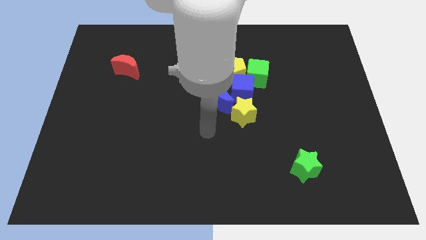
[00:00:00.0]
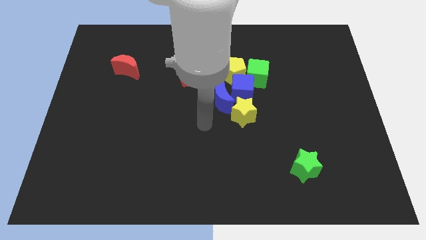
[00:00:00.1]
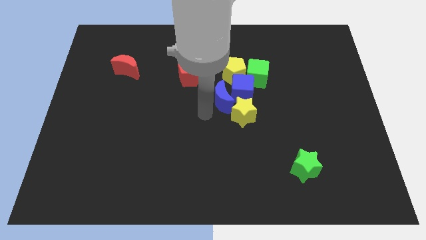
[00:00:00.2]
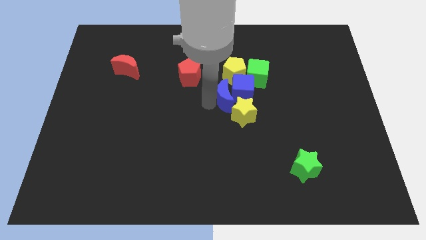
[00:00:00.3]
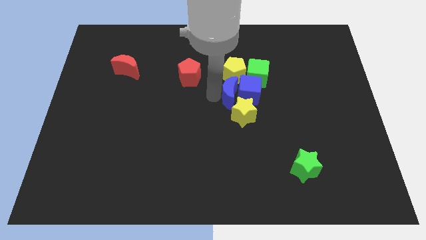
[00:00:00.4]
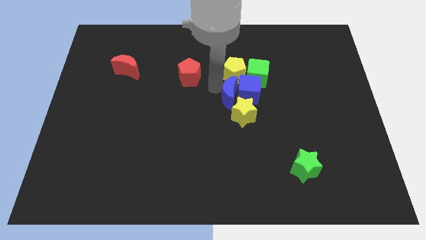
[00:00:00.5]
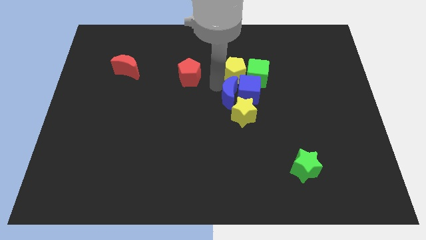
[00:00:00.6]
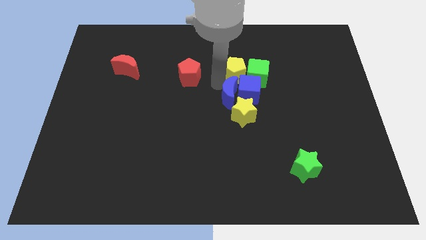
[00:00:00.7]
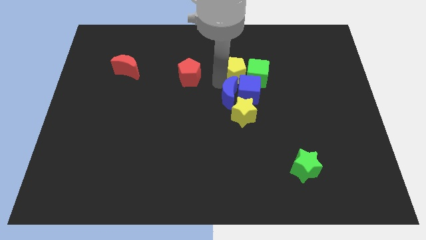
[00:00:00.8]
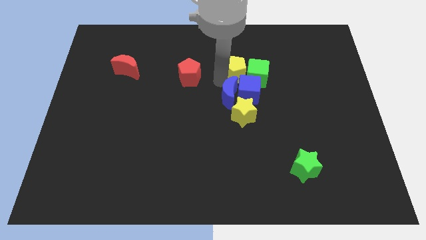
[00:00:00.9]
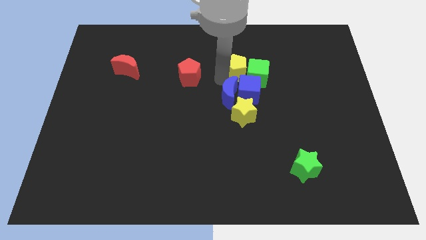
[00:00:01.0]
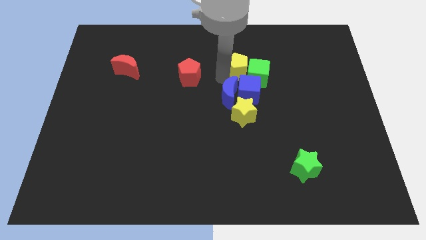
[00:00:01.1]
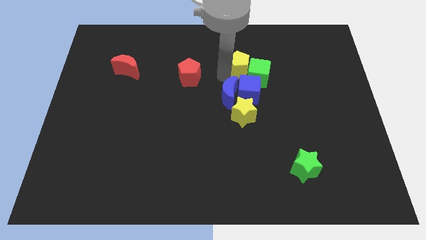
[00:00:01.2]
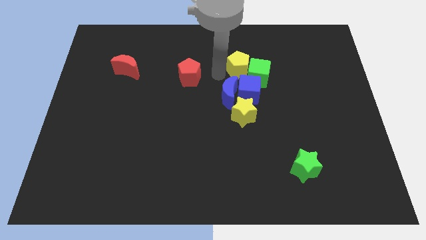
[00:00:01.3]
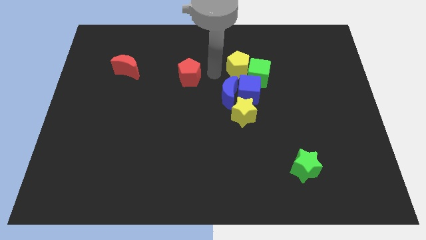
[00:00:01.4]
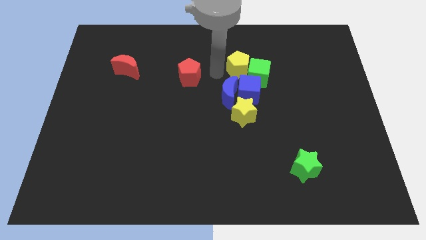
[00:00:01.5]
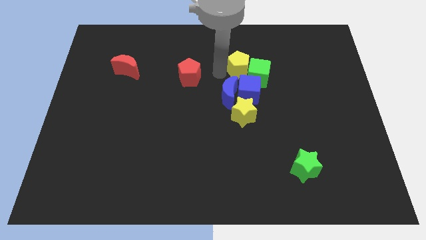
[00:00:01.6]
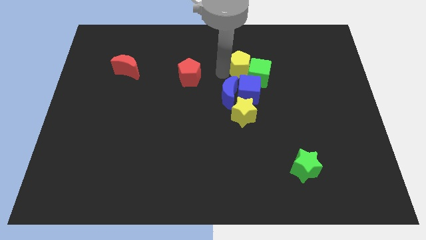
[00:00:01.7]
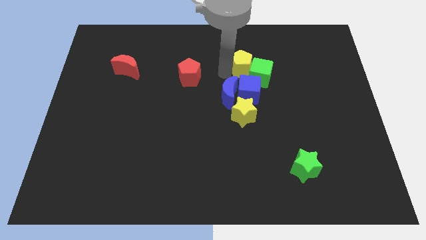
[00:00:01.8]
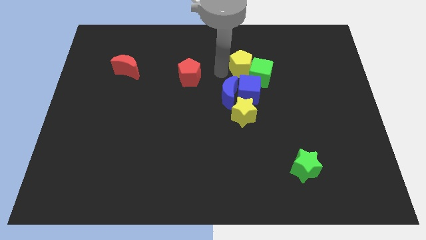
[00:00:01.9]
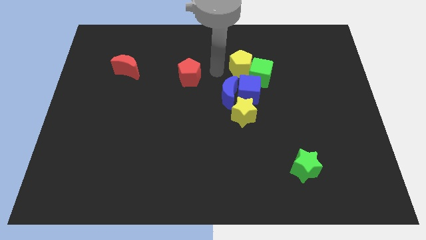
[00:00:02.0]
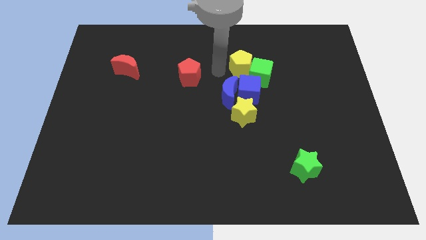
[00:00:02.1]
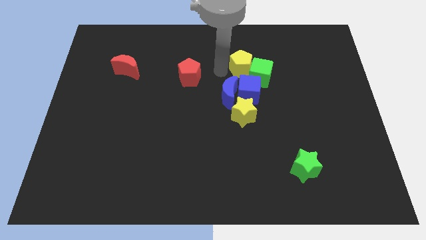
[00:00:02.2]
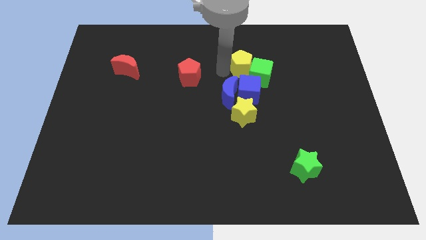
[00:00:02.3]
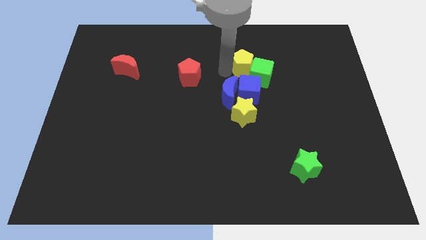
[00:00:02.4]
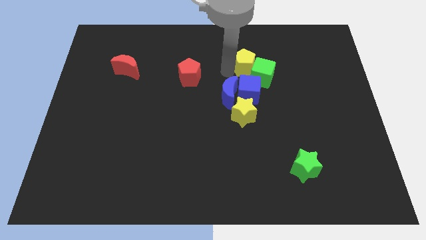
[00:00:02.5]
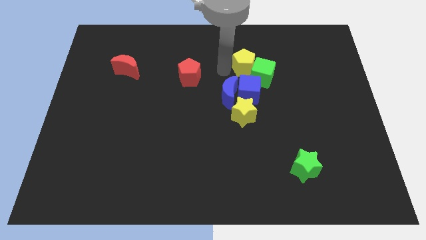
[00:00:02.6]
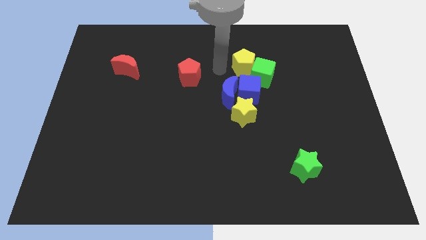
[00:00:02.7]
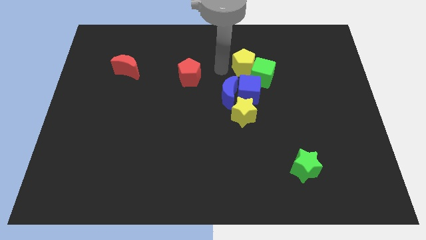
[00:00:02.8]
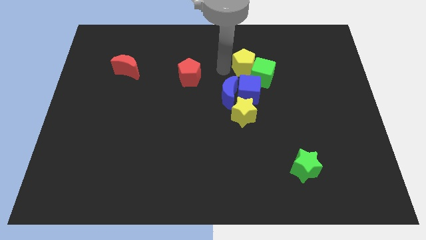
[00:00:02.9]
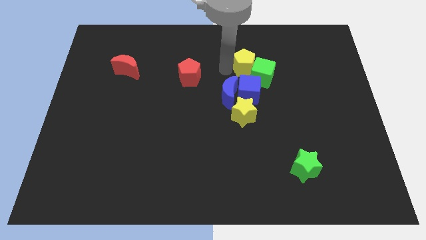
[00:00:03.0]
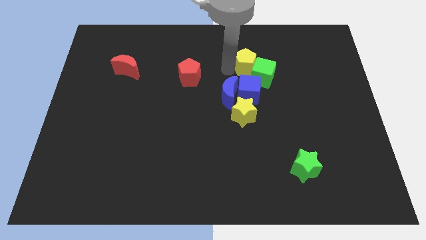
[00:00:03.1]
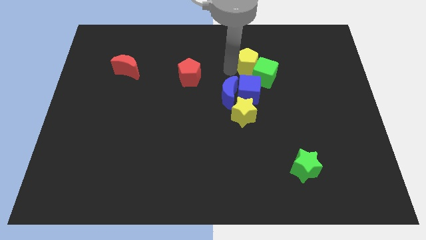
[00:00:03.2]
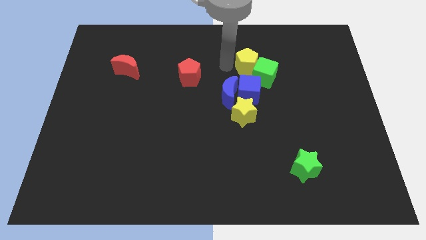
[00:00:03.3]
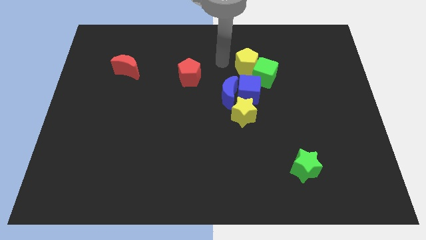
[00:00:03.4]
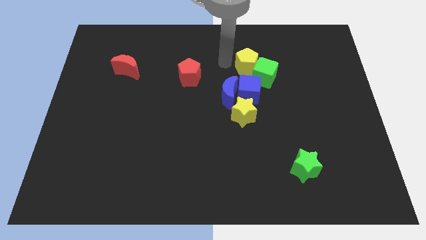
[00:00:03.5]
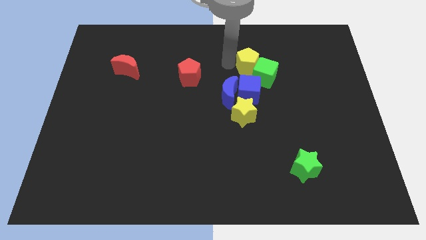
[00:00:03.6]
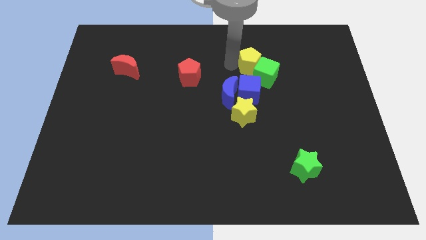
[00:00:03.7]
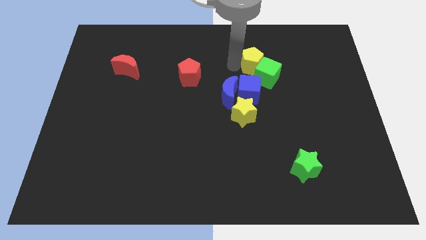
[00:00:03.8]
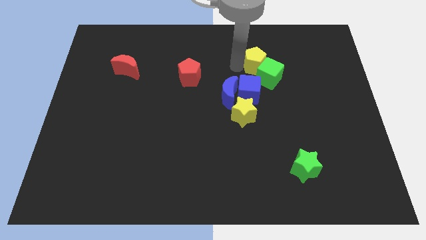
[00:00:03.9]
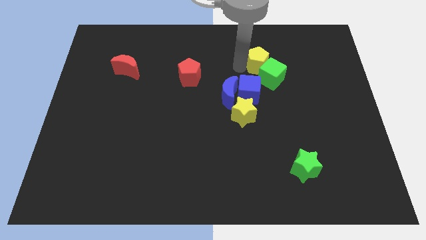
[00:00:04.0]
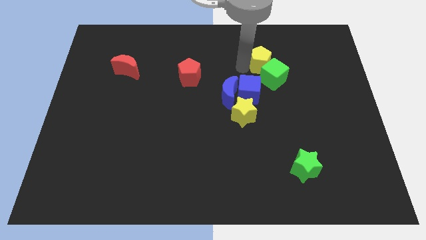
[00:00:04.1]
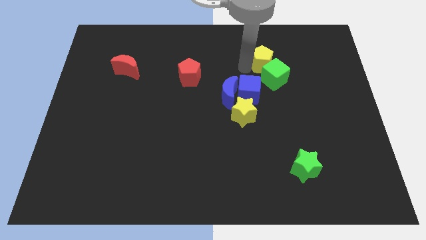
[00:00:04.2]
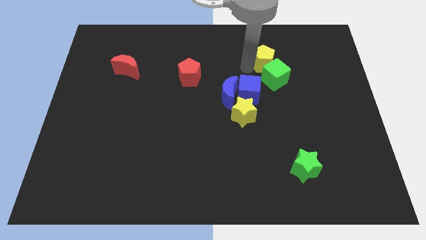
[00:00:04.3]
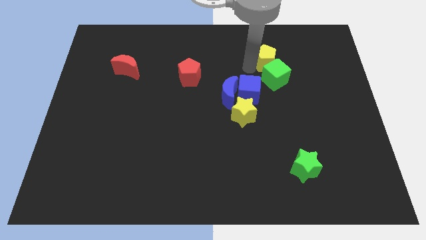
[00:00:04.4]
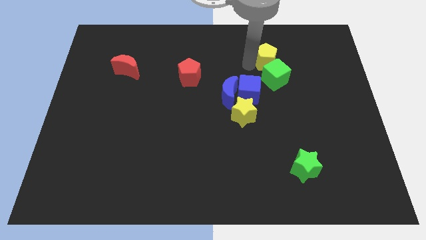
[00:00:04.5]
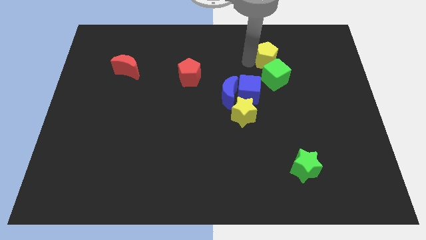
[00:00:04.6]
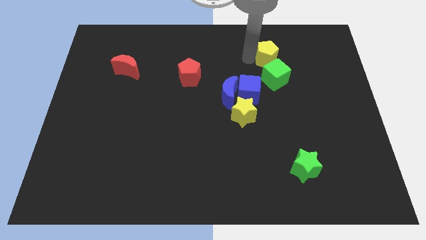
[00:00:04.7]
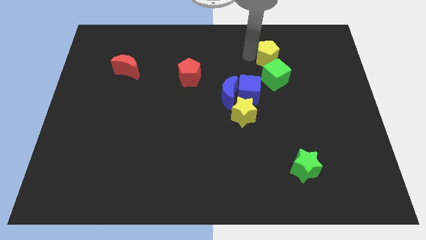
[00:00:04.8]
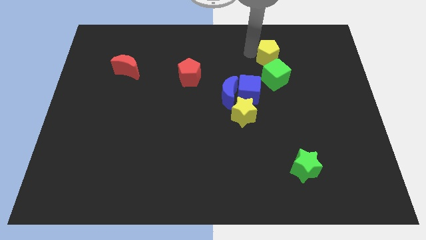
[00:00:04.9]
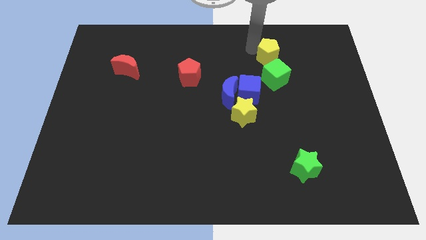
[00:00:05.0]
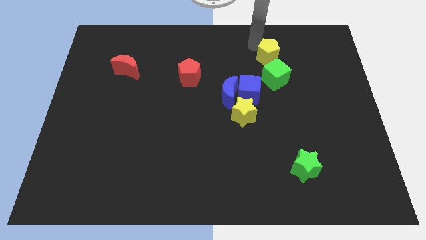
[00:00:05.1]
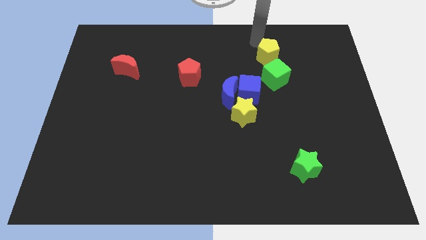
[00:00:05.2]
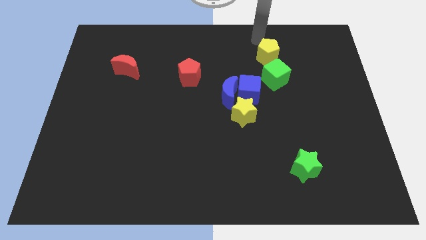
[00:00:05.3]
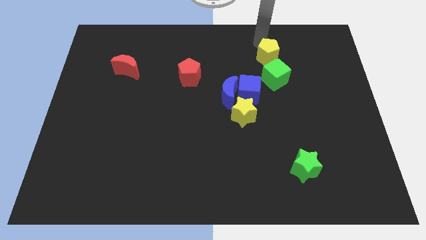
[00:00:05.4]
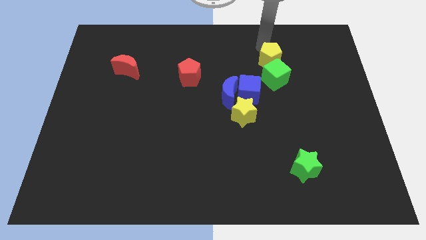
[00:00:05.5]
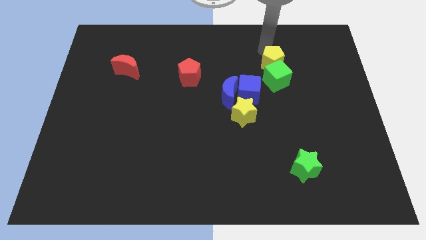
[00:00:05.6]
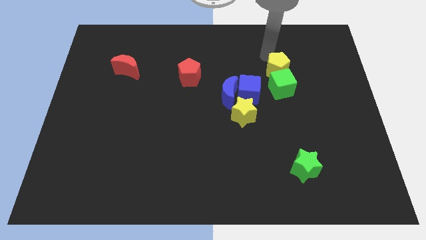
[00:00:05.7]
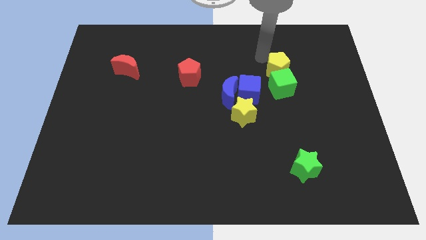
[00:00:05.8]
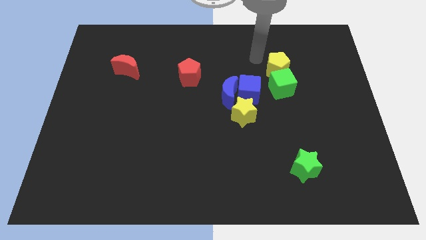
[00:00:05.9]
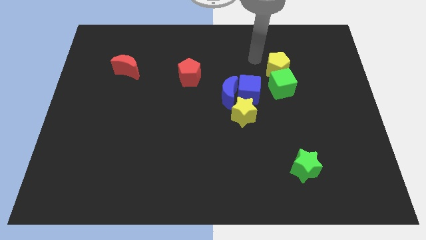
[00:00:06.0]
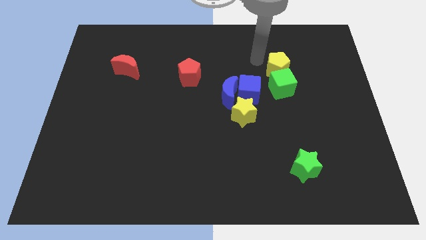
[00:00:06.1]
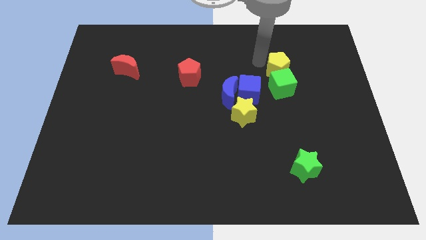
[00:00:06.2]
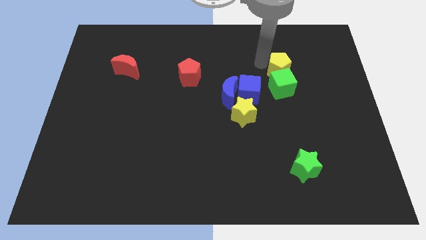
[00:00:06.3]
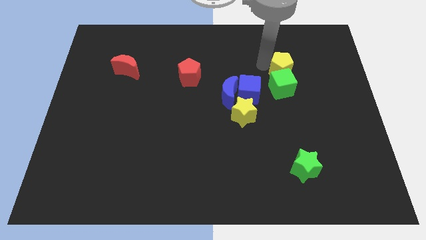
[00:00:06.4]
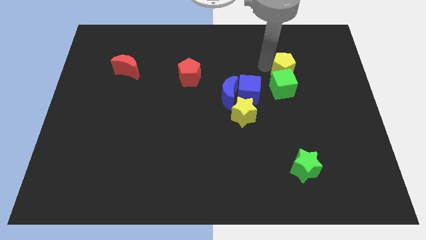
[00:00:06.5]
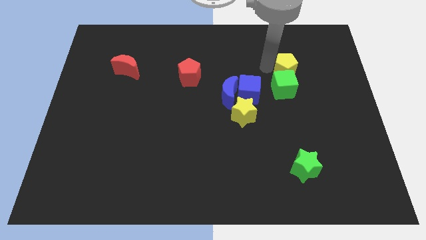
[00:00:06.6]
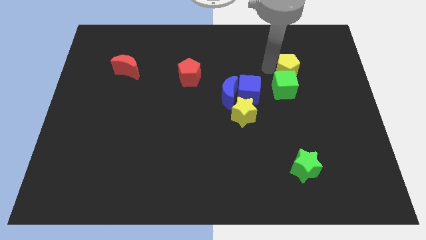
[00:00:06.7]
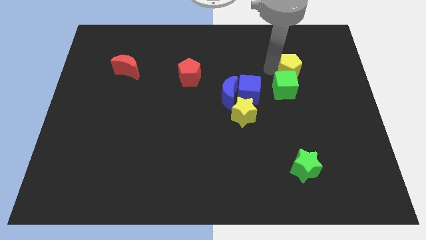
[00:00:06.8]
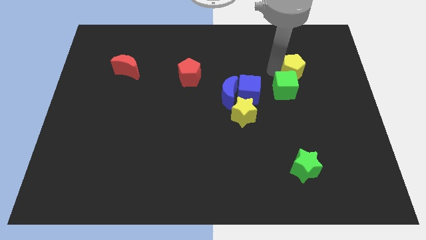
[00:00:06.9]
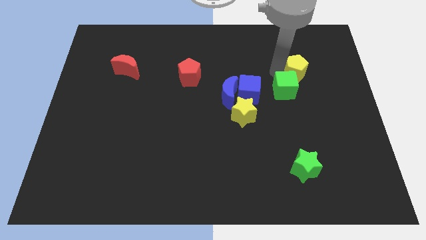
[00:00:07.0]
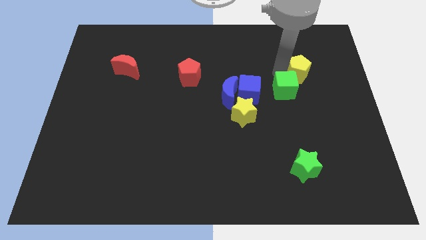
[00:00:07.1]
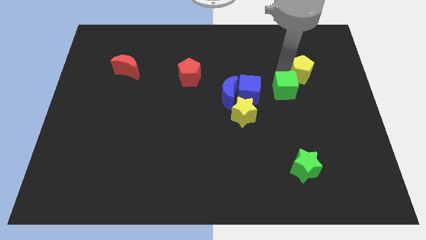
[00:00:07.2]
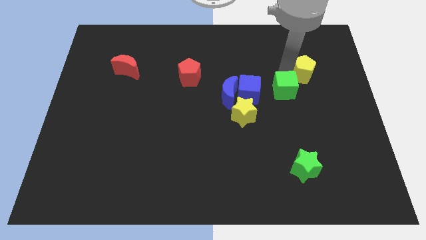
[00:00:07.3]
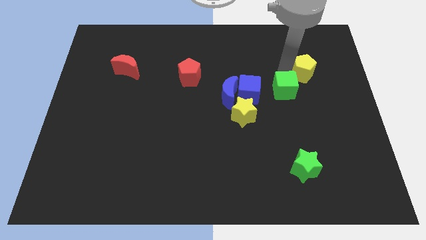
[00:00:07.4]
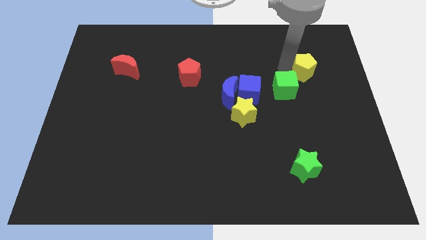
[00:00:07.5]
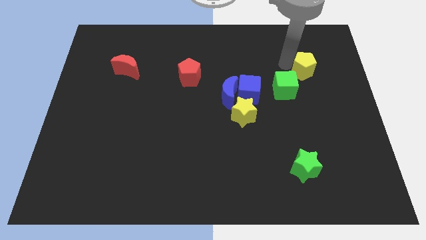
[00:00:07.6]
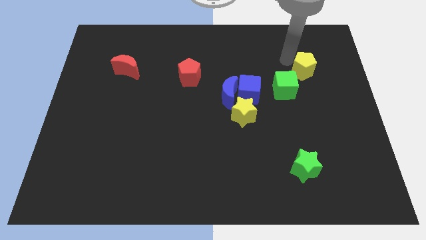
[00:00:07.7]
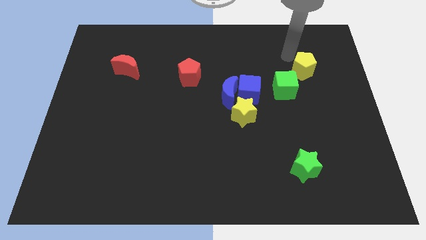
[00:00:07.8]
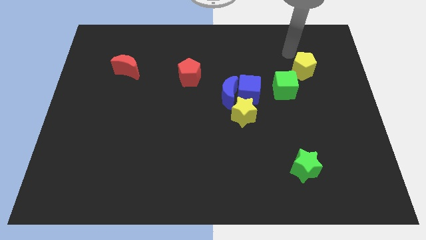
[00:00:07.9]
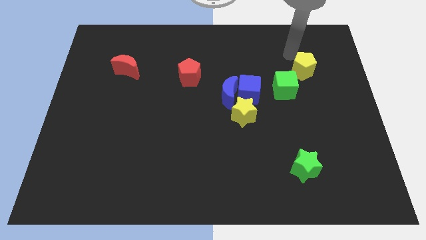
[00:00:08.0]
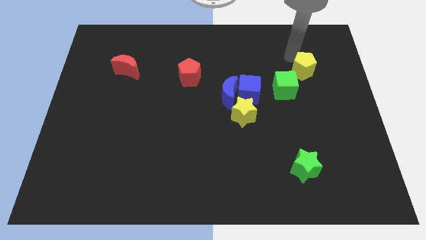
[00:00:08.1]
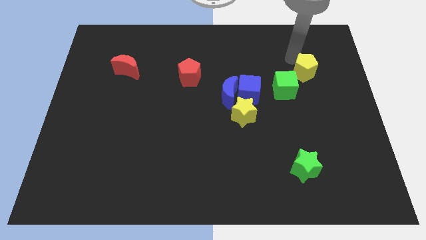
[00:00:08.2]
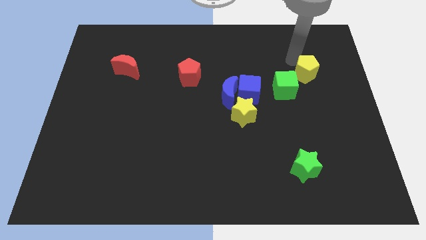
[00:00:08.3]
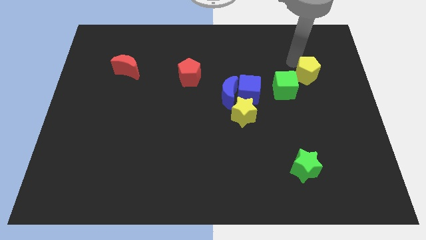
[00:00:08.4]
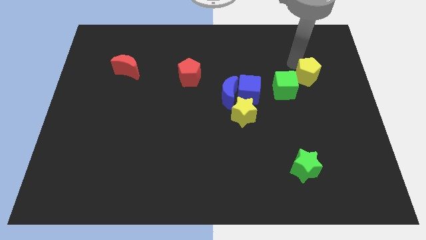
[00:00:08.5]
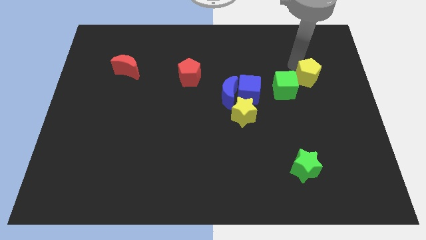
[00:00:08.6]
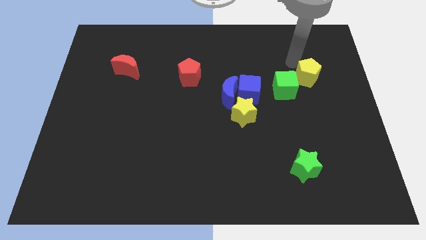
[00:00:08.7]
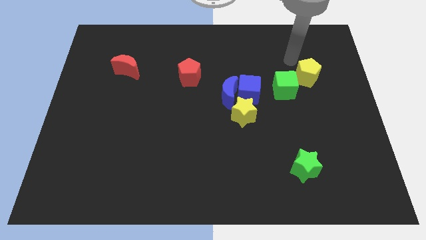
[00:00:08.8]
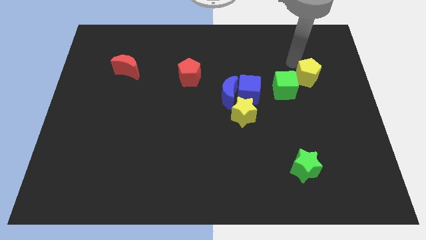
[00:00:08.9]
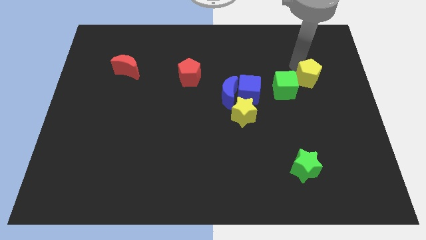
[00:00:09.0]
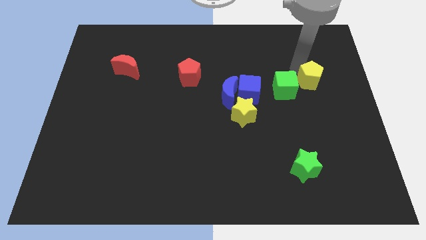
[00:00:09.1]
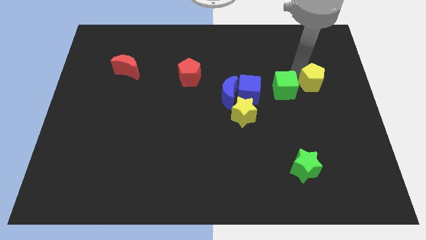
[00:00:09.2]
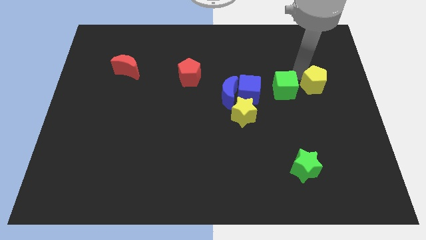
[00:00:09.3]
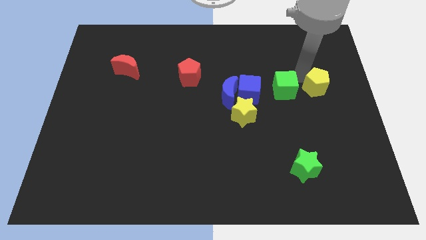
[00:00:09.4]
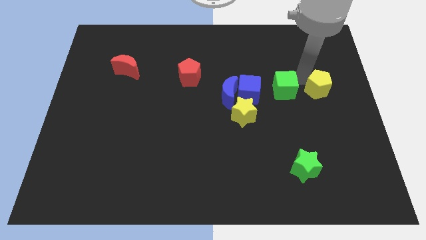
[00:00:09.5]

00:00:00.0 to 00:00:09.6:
push the yellow pentagon to the center right
